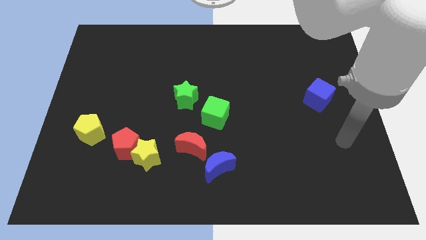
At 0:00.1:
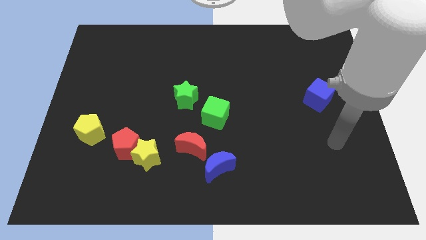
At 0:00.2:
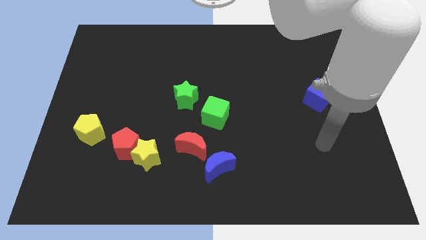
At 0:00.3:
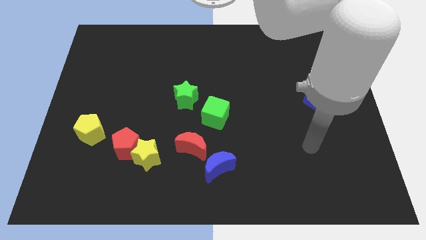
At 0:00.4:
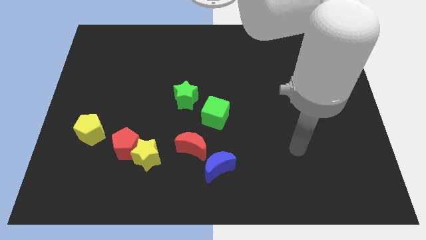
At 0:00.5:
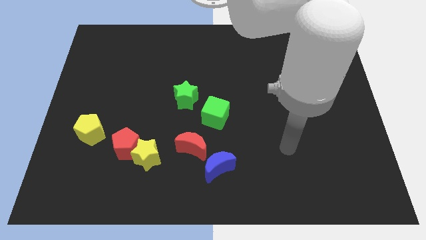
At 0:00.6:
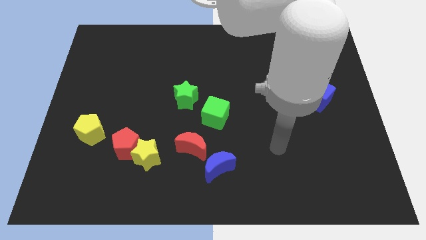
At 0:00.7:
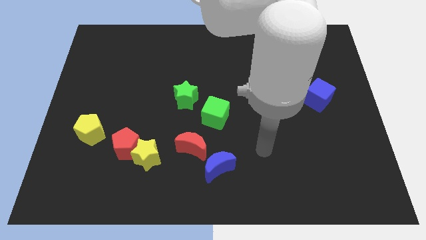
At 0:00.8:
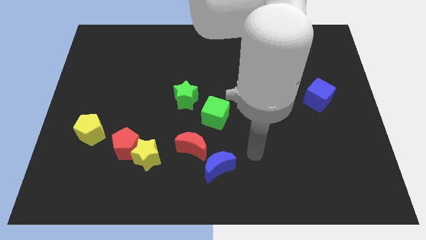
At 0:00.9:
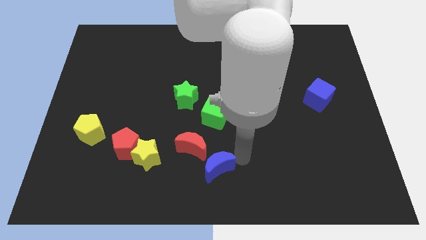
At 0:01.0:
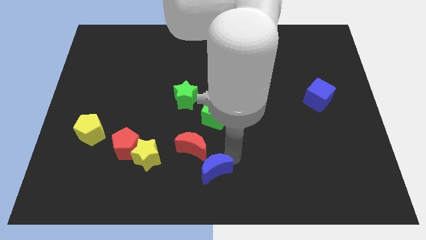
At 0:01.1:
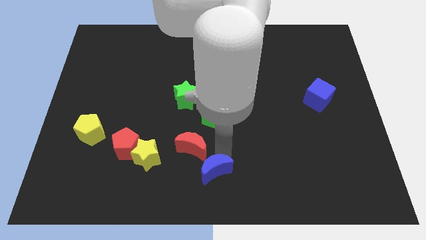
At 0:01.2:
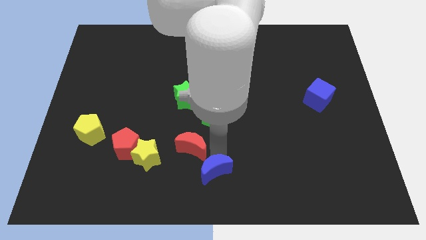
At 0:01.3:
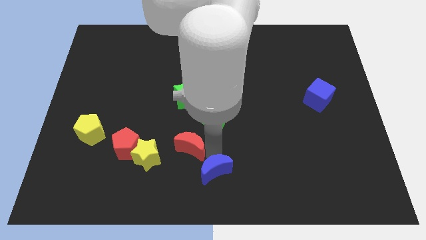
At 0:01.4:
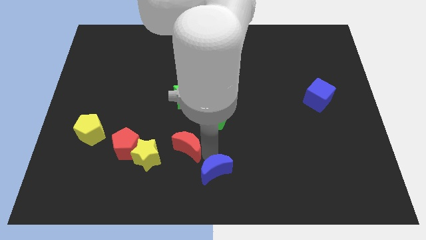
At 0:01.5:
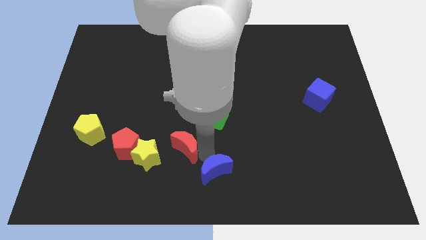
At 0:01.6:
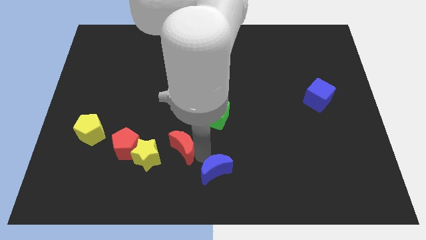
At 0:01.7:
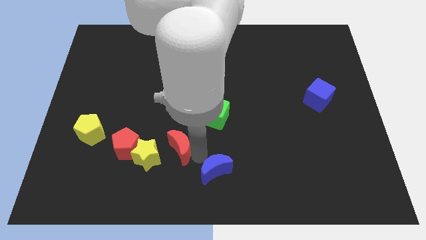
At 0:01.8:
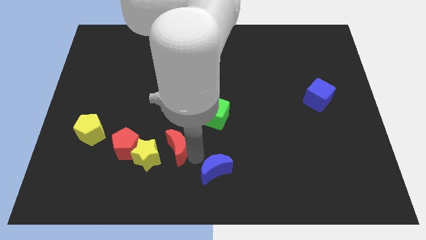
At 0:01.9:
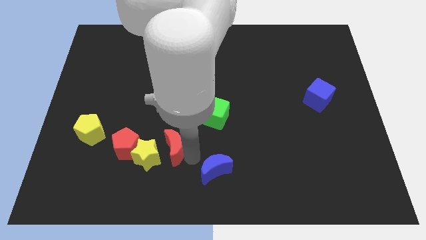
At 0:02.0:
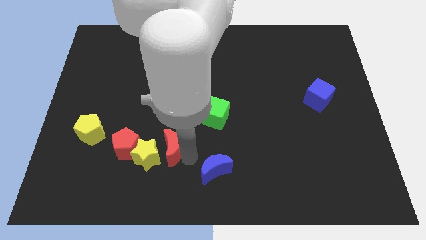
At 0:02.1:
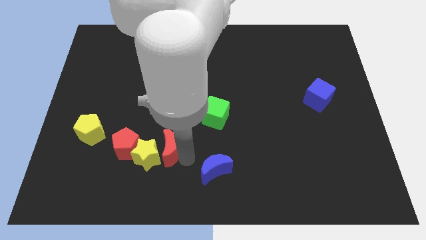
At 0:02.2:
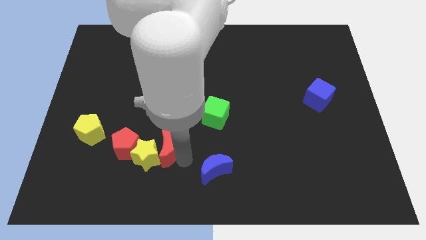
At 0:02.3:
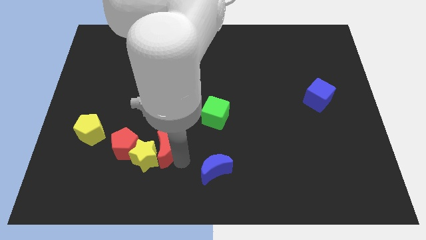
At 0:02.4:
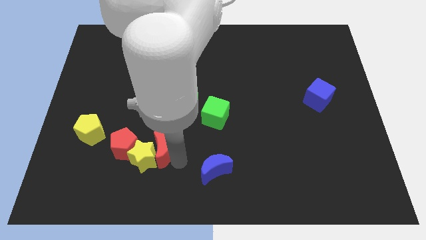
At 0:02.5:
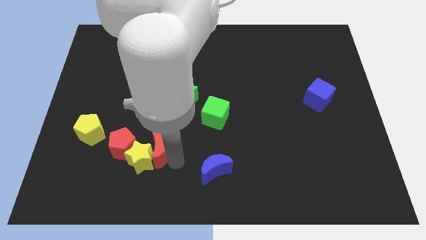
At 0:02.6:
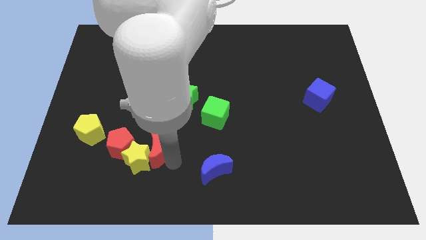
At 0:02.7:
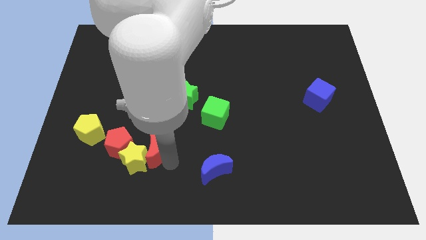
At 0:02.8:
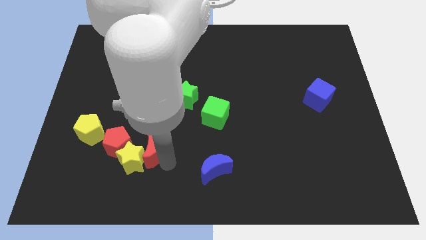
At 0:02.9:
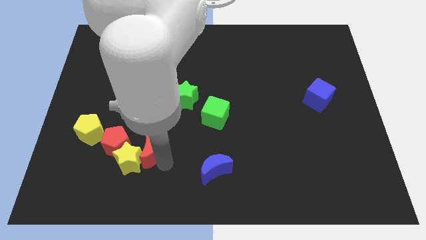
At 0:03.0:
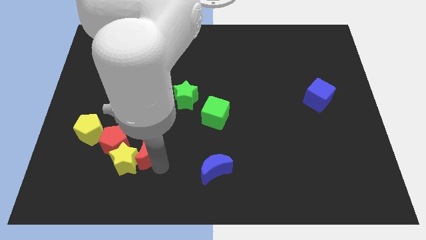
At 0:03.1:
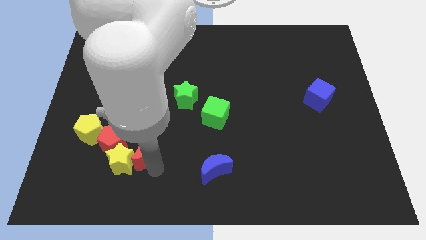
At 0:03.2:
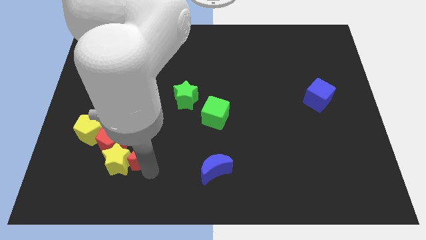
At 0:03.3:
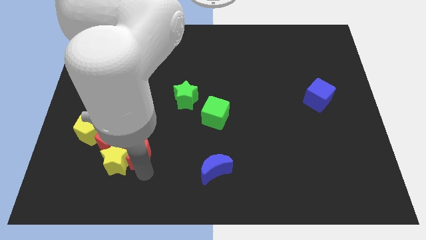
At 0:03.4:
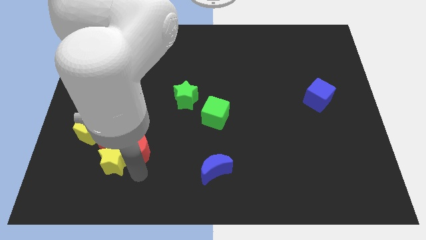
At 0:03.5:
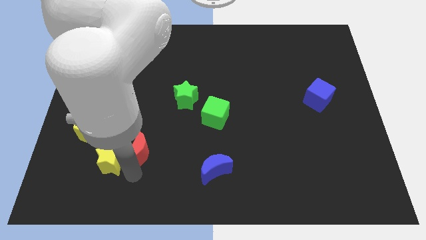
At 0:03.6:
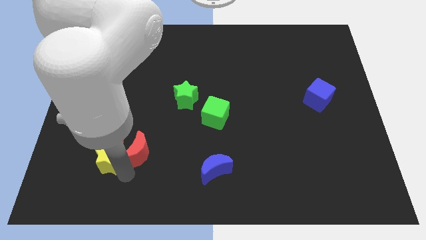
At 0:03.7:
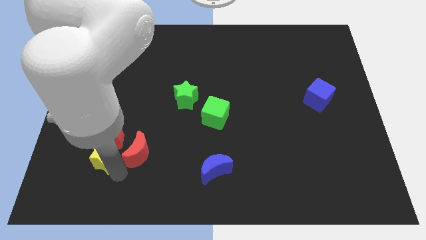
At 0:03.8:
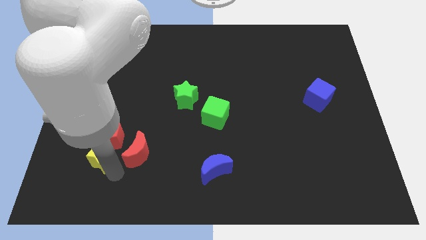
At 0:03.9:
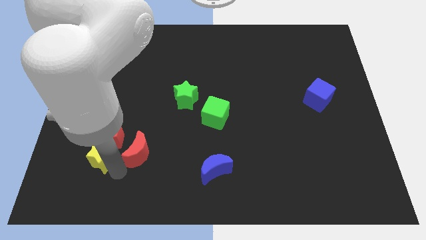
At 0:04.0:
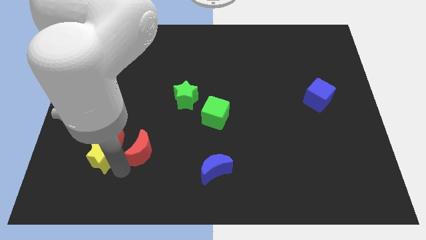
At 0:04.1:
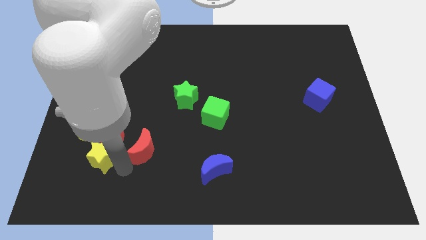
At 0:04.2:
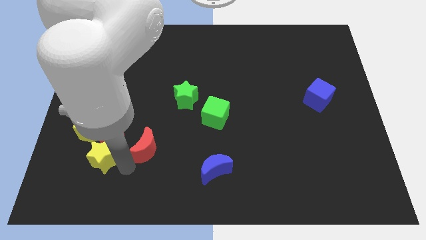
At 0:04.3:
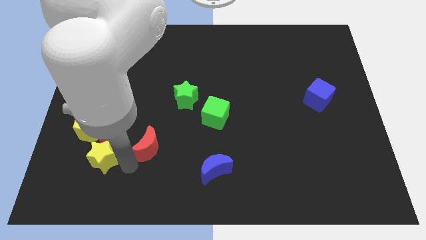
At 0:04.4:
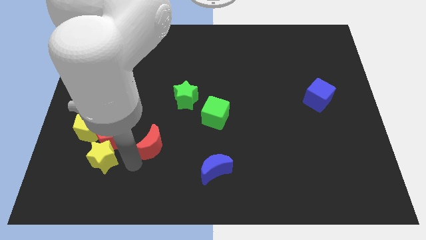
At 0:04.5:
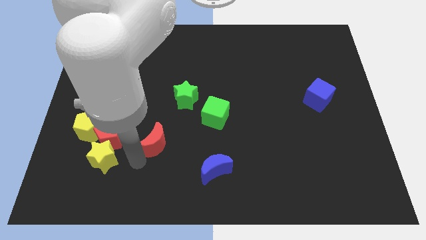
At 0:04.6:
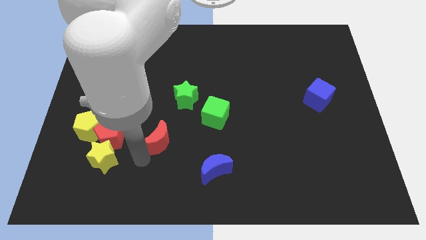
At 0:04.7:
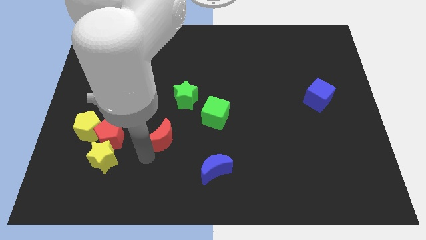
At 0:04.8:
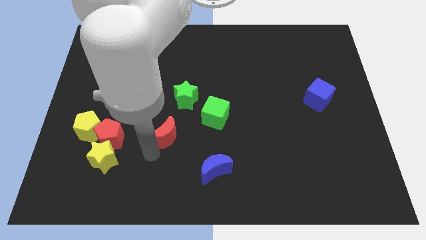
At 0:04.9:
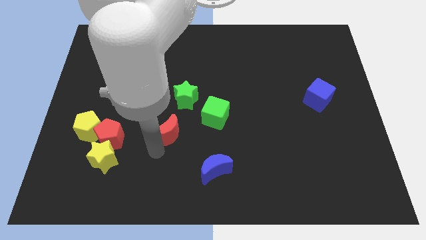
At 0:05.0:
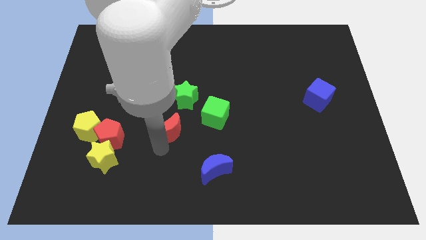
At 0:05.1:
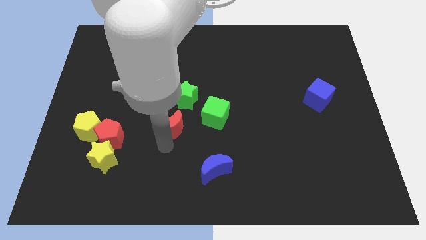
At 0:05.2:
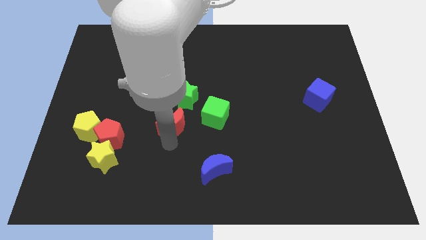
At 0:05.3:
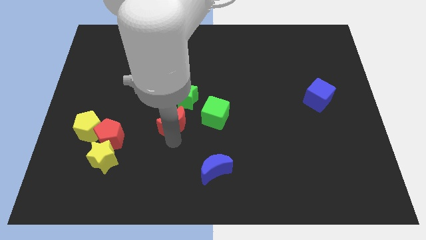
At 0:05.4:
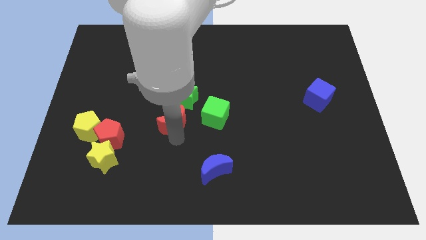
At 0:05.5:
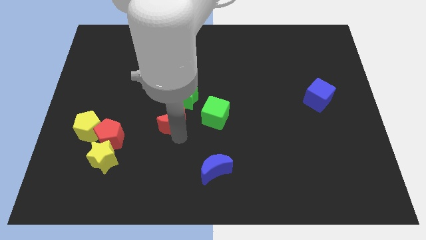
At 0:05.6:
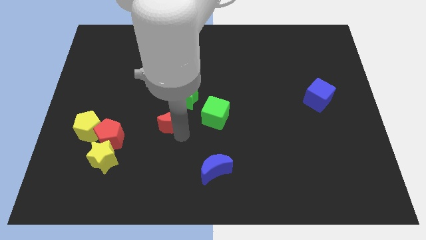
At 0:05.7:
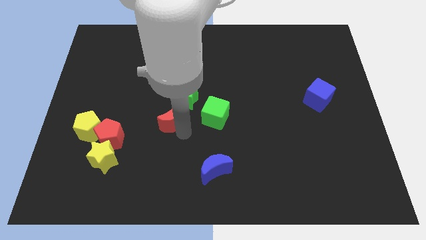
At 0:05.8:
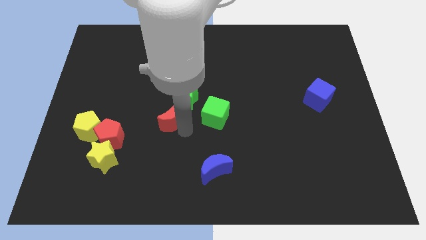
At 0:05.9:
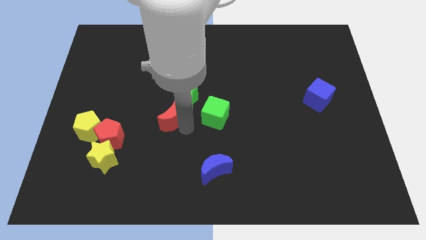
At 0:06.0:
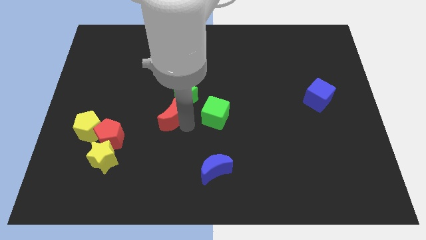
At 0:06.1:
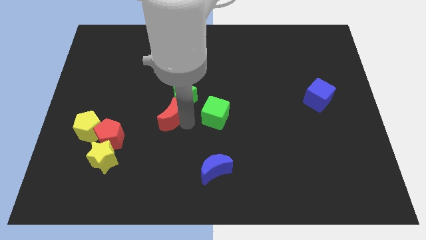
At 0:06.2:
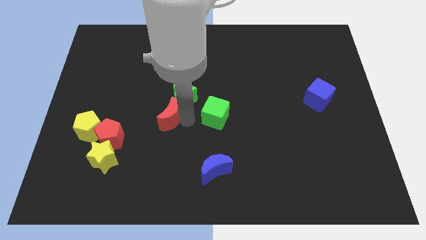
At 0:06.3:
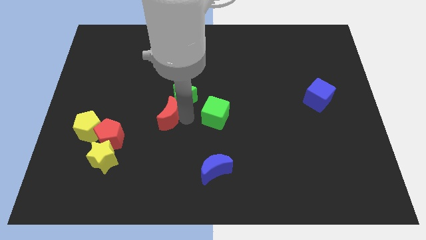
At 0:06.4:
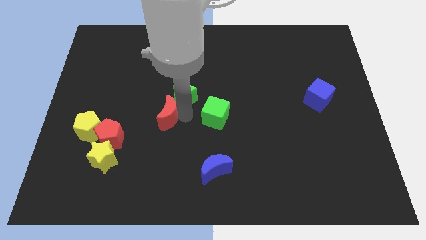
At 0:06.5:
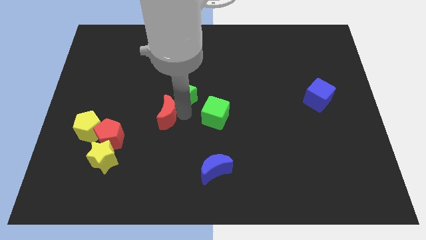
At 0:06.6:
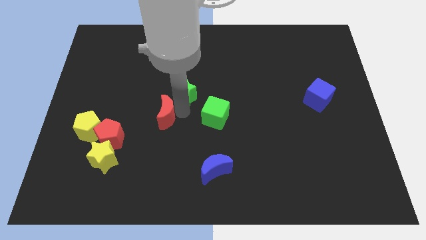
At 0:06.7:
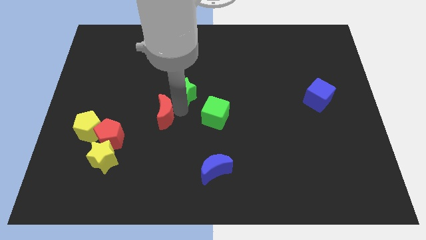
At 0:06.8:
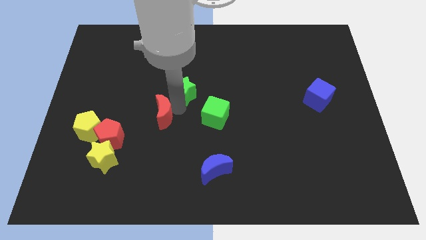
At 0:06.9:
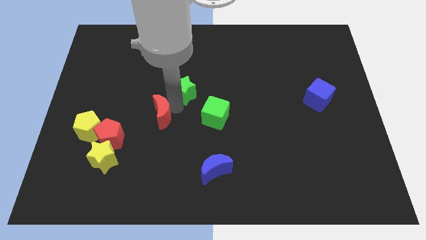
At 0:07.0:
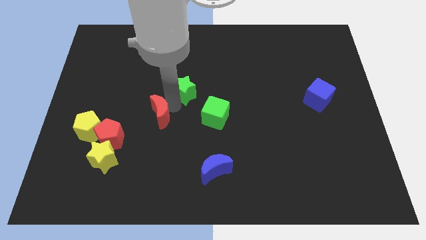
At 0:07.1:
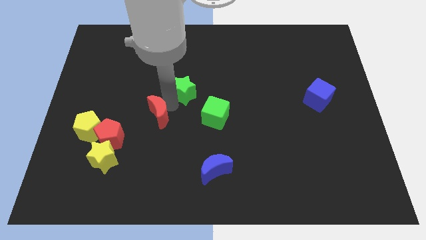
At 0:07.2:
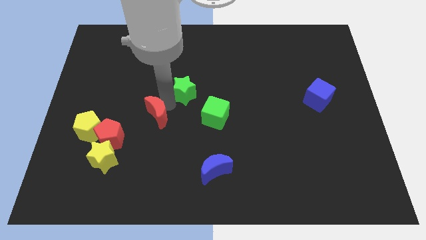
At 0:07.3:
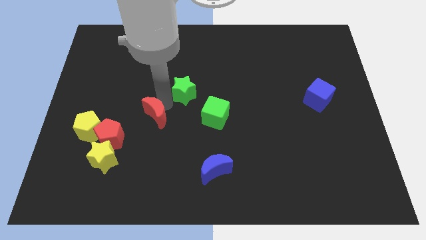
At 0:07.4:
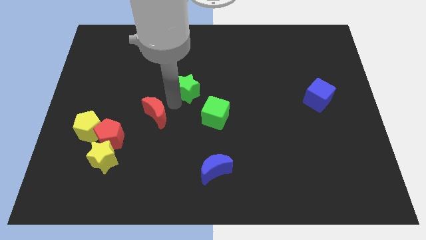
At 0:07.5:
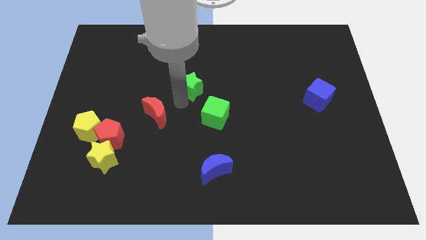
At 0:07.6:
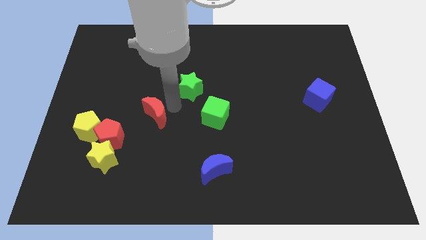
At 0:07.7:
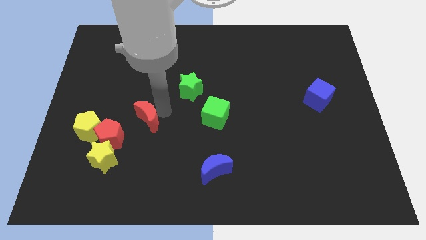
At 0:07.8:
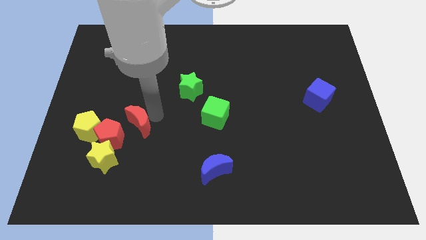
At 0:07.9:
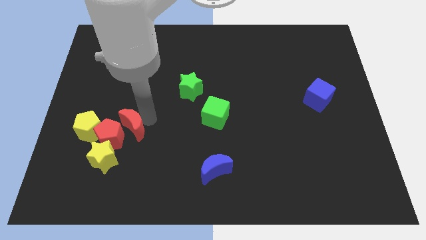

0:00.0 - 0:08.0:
slide the red moon next to the red pentagon
